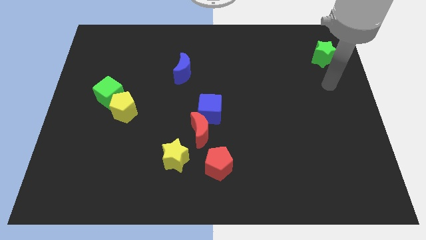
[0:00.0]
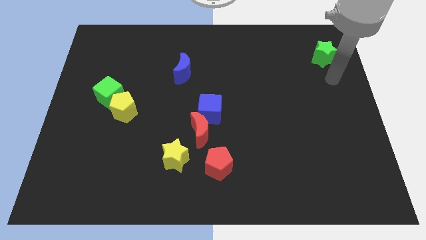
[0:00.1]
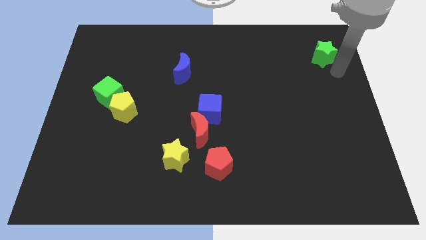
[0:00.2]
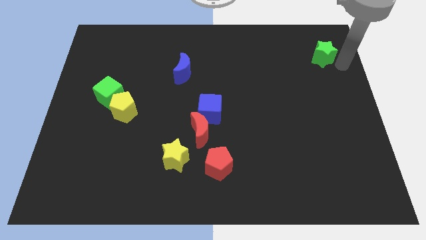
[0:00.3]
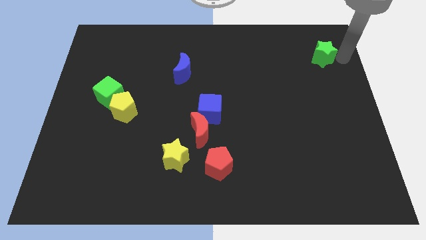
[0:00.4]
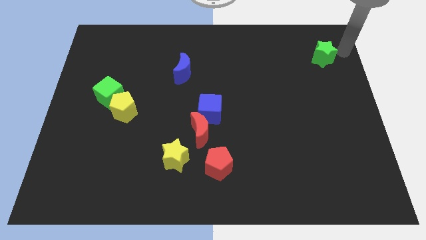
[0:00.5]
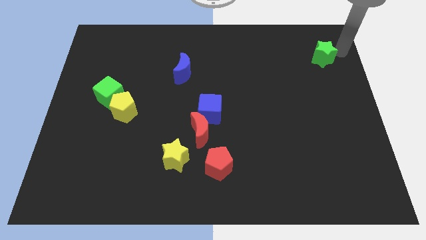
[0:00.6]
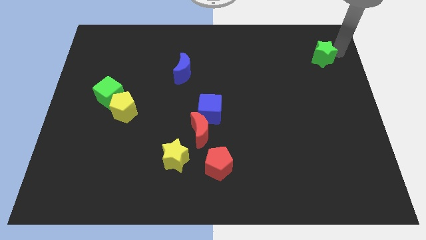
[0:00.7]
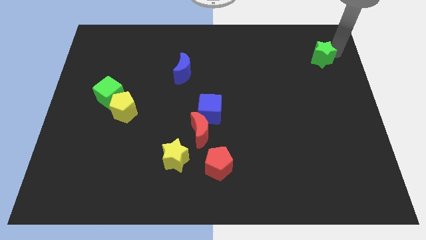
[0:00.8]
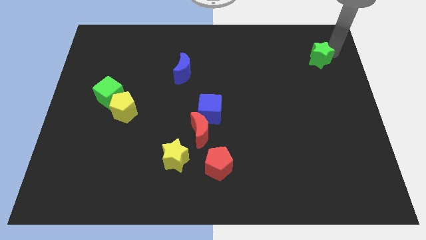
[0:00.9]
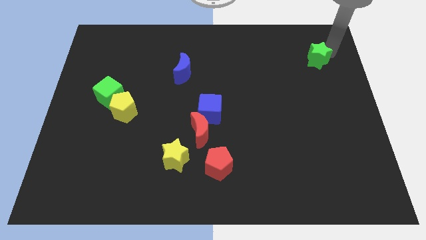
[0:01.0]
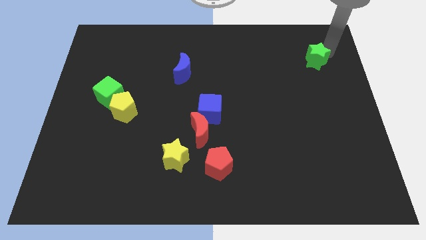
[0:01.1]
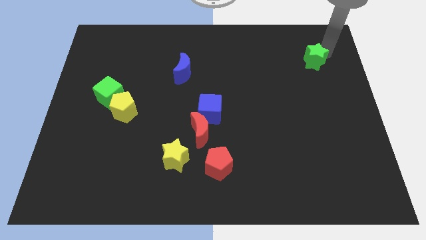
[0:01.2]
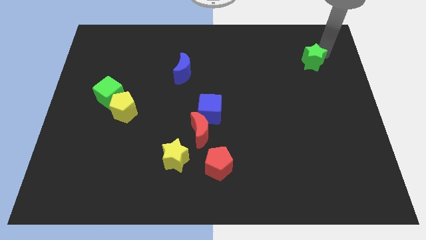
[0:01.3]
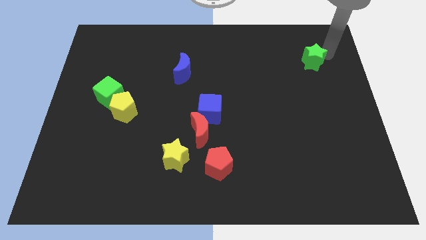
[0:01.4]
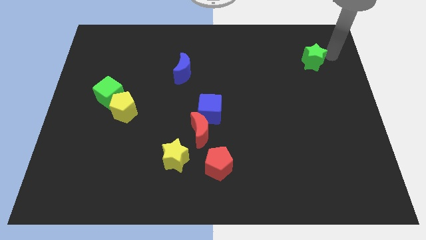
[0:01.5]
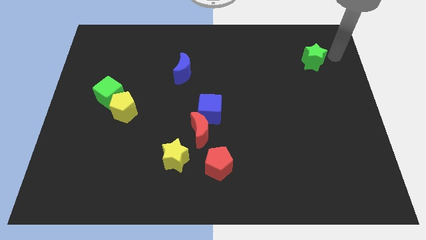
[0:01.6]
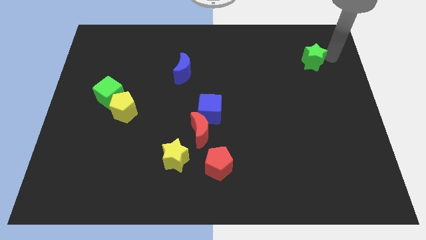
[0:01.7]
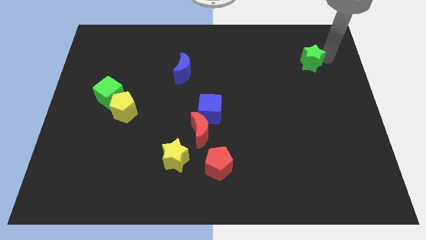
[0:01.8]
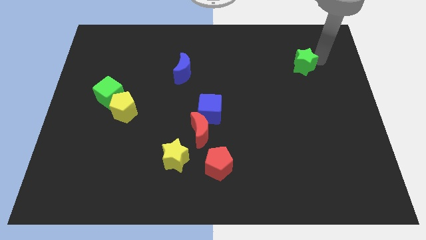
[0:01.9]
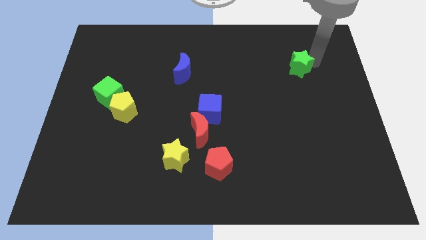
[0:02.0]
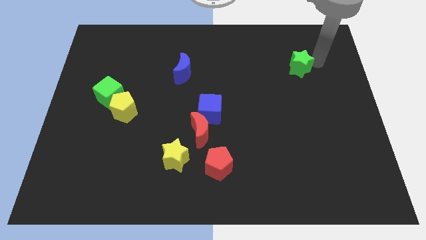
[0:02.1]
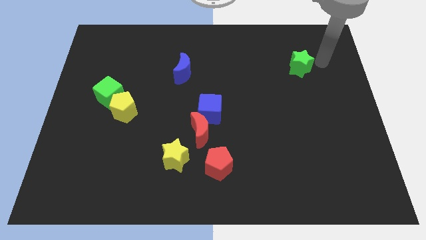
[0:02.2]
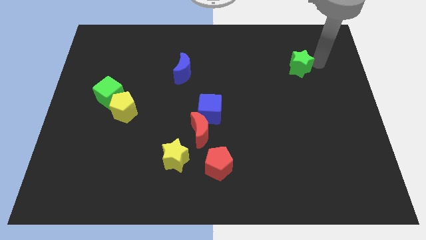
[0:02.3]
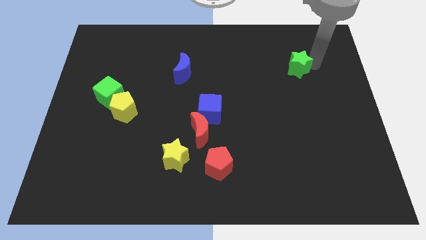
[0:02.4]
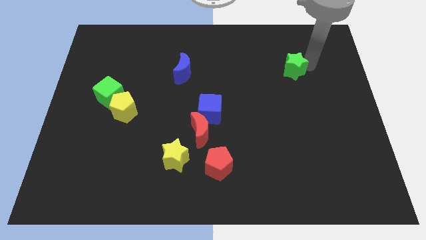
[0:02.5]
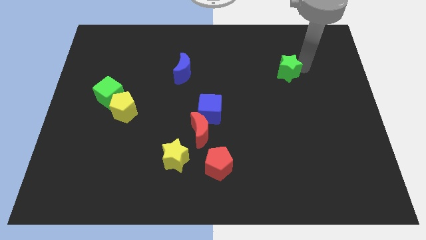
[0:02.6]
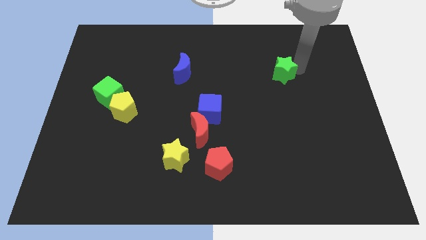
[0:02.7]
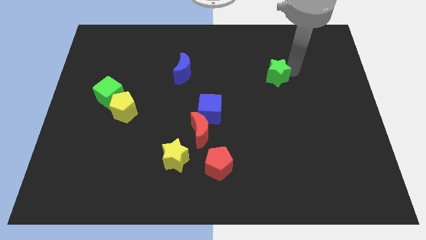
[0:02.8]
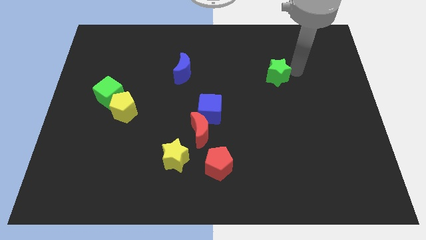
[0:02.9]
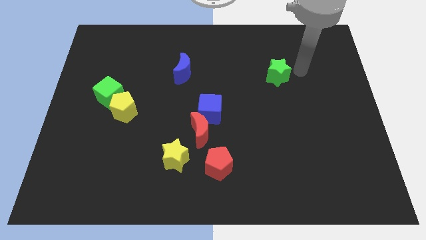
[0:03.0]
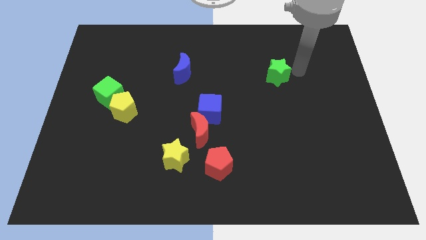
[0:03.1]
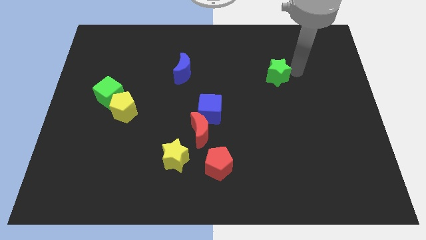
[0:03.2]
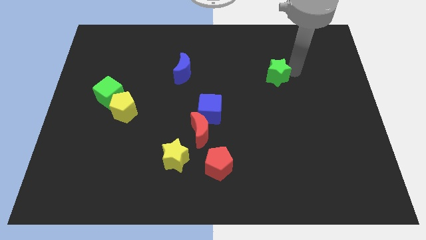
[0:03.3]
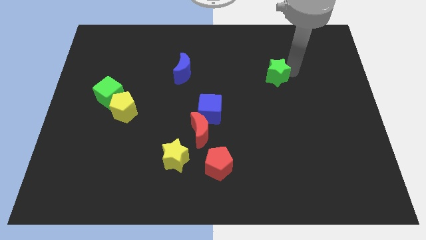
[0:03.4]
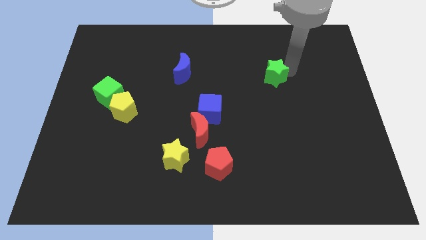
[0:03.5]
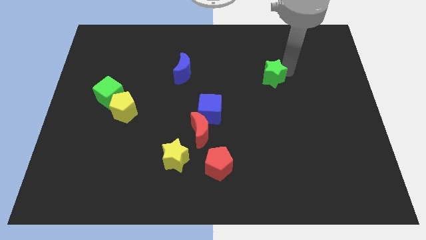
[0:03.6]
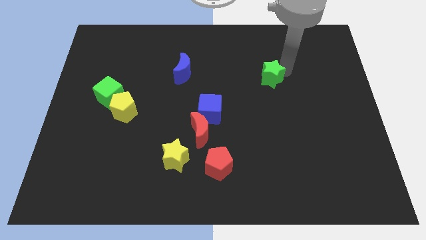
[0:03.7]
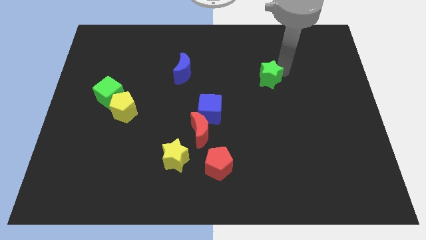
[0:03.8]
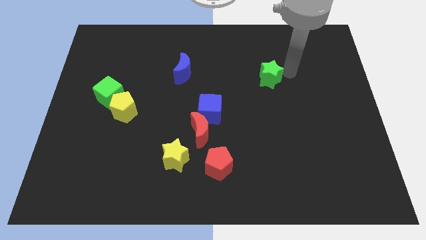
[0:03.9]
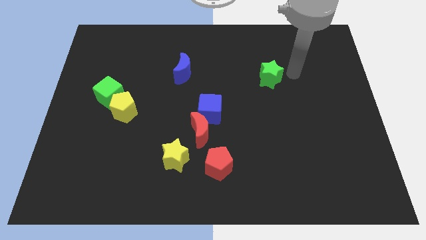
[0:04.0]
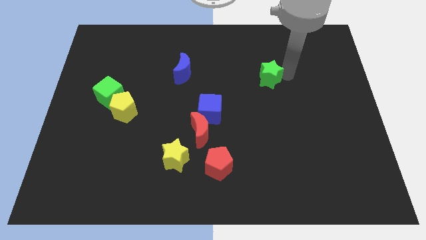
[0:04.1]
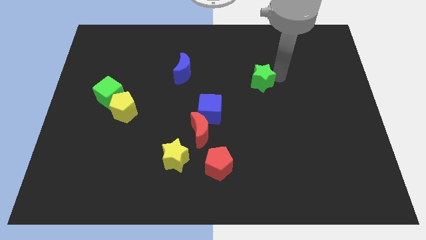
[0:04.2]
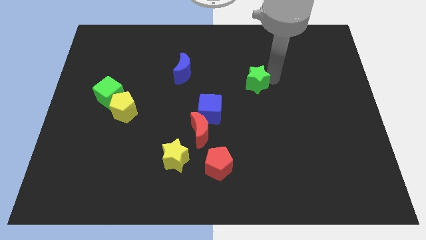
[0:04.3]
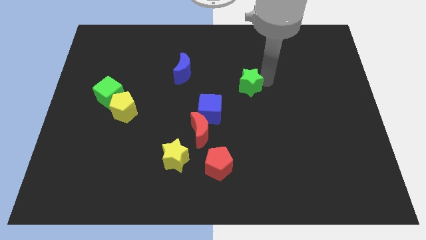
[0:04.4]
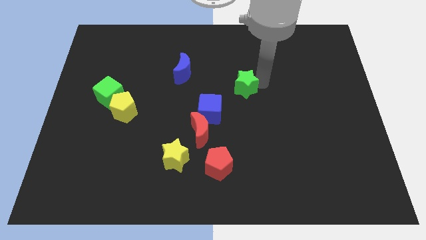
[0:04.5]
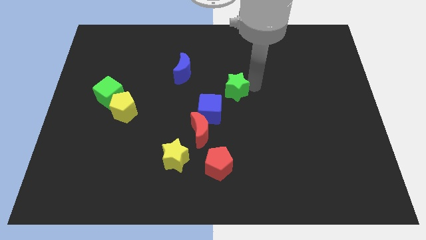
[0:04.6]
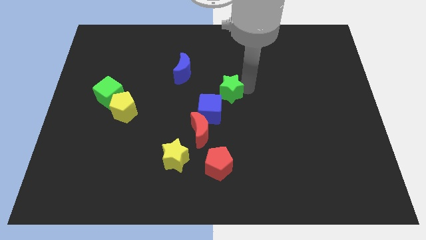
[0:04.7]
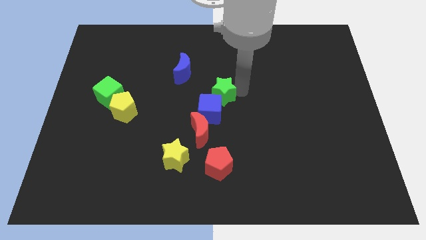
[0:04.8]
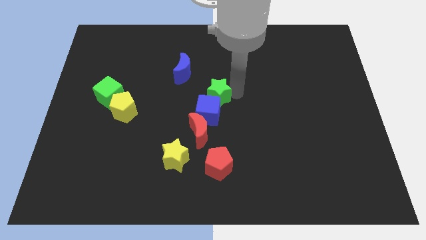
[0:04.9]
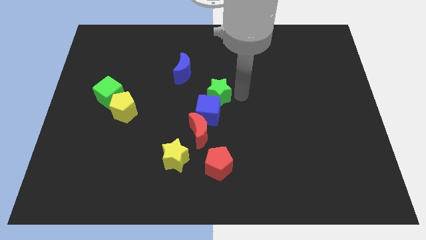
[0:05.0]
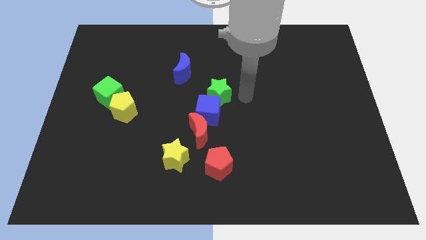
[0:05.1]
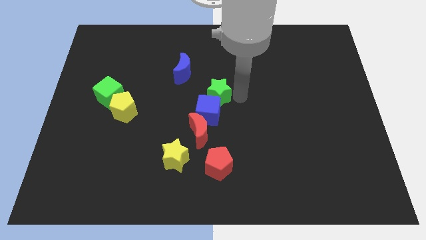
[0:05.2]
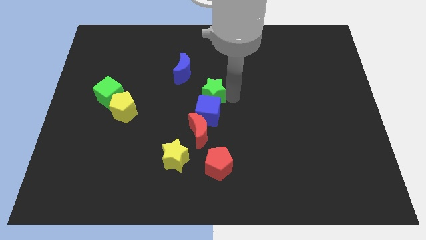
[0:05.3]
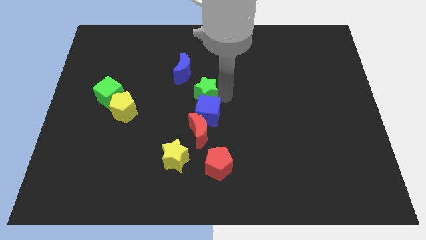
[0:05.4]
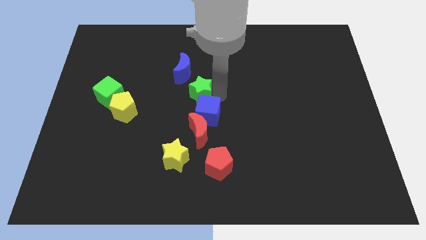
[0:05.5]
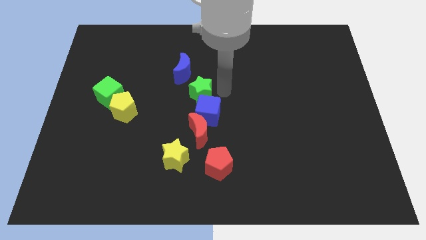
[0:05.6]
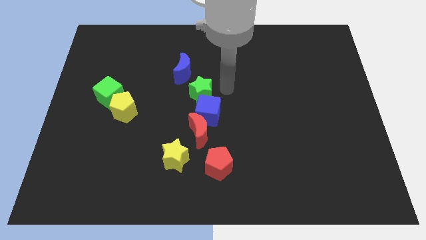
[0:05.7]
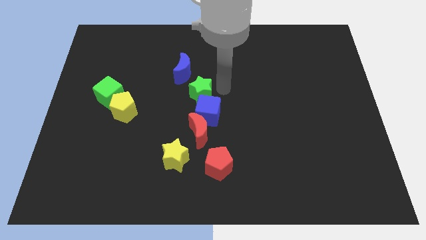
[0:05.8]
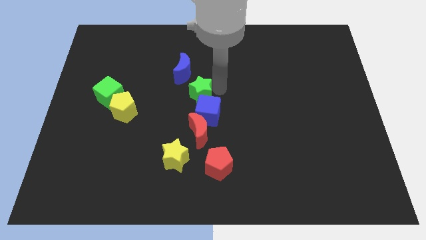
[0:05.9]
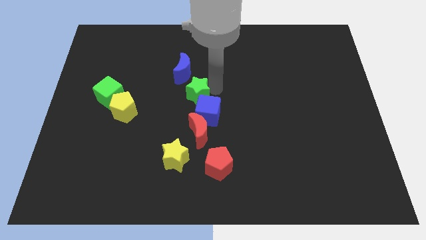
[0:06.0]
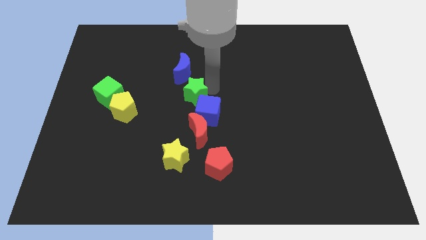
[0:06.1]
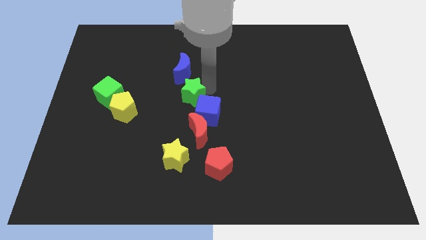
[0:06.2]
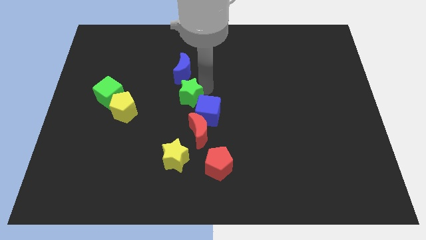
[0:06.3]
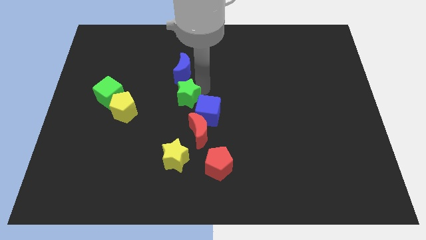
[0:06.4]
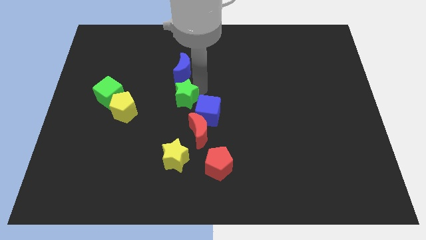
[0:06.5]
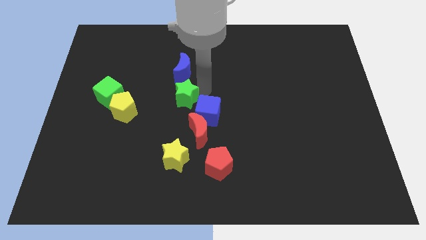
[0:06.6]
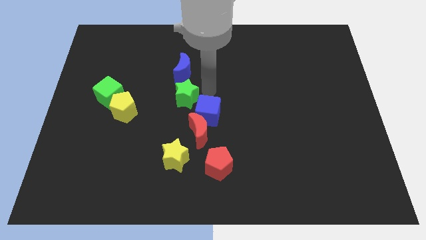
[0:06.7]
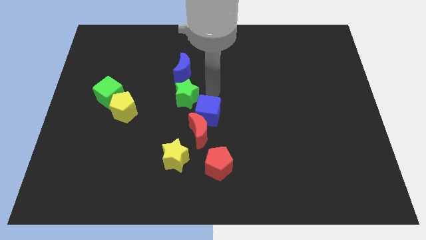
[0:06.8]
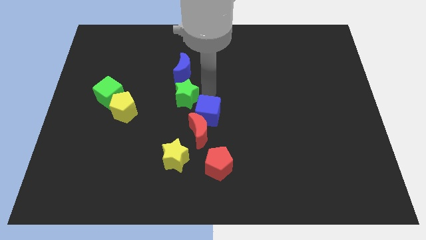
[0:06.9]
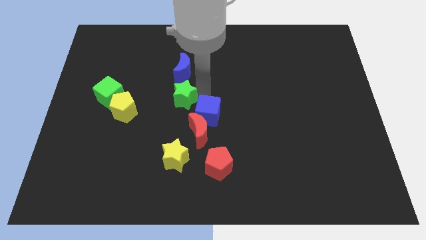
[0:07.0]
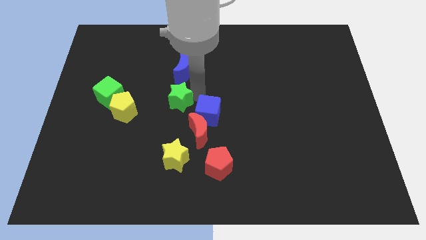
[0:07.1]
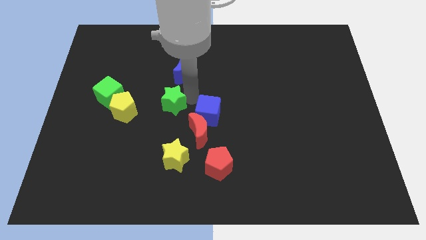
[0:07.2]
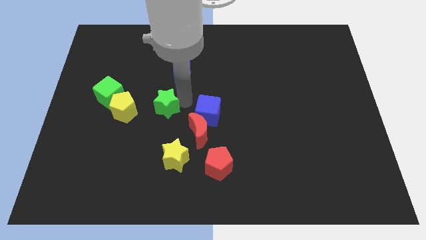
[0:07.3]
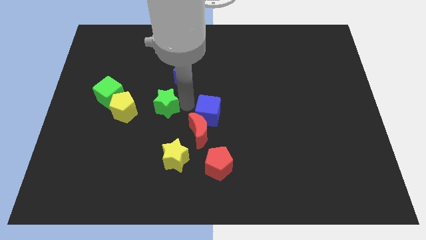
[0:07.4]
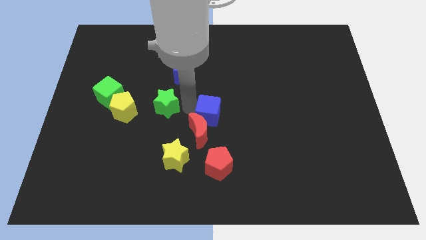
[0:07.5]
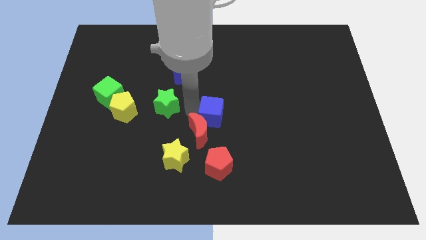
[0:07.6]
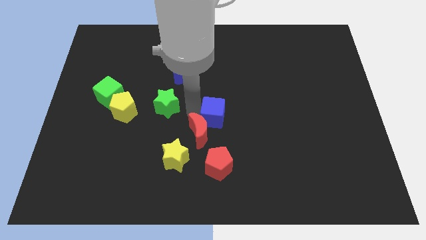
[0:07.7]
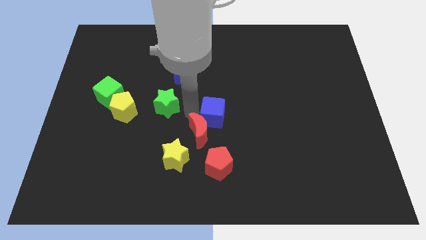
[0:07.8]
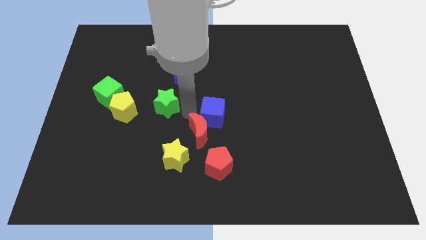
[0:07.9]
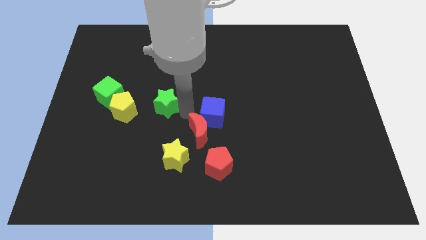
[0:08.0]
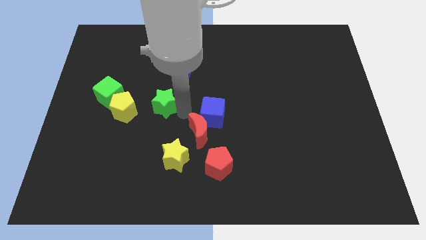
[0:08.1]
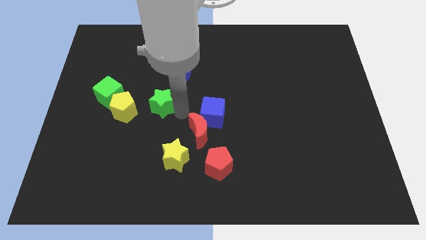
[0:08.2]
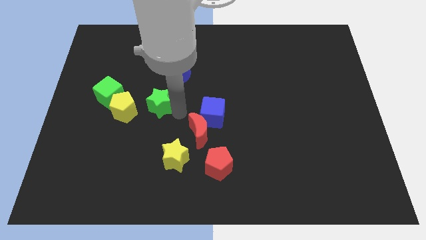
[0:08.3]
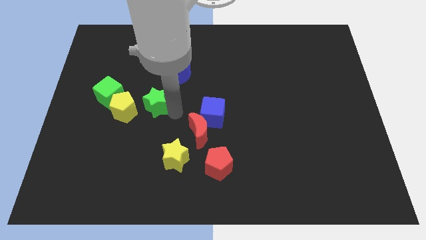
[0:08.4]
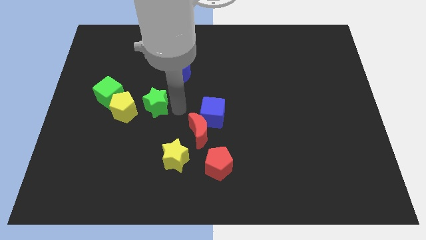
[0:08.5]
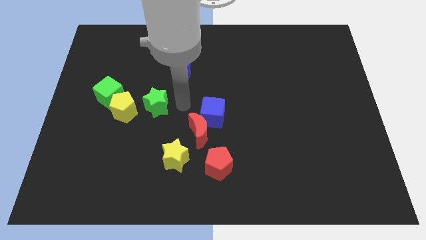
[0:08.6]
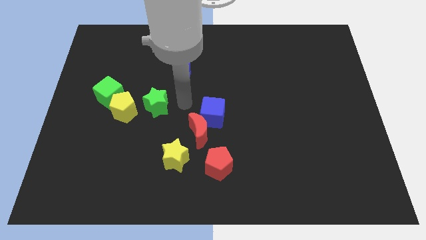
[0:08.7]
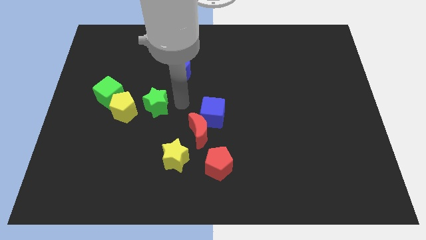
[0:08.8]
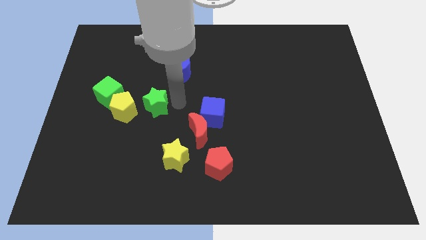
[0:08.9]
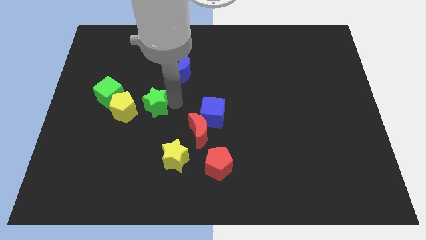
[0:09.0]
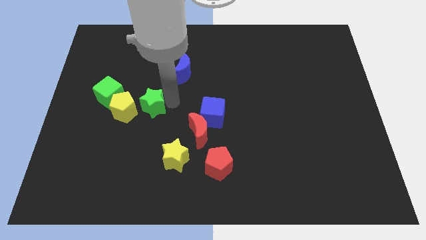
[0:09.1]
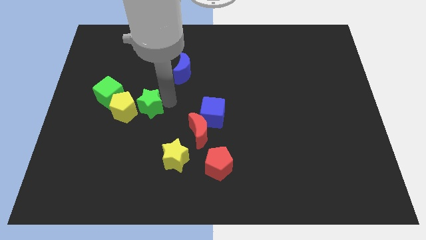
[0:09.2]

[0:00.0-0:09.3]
push the green star towards the yellow pentagon
